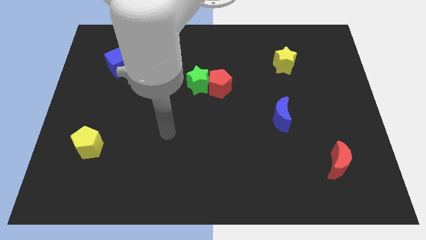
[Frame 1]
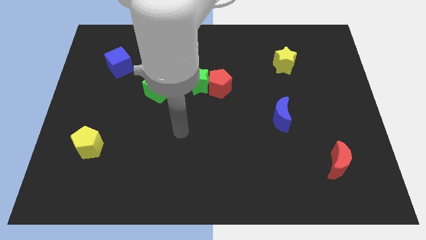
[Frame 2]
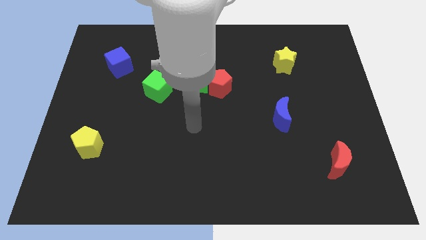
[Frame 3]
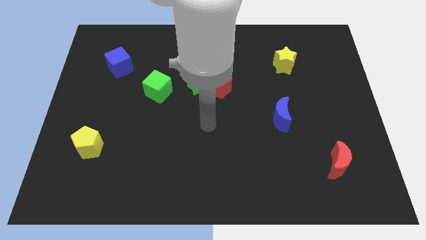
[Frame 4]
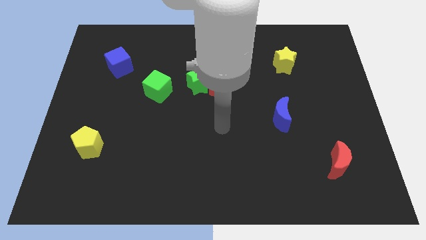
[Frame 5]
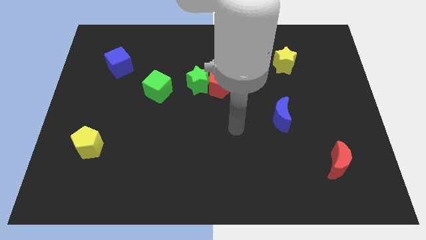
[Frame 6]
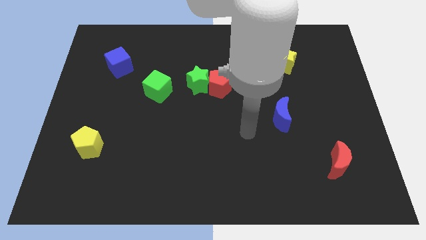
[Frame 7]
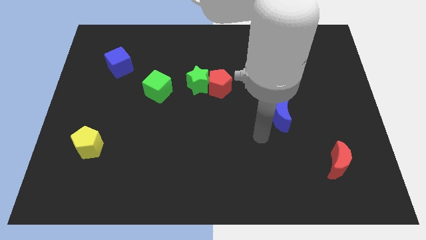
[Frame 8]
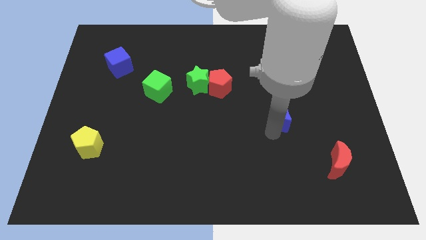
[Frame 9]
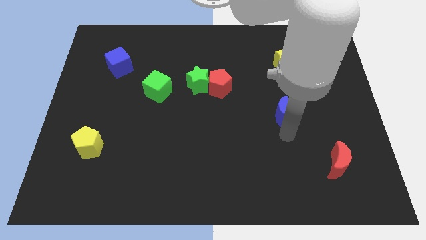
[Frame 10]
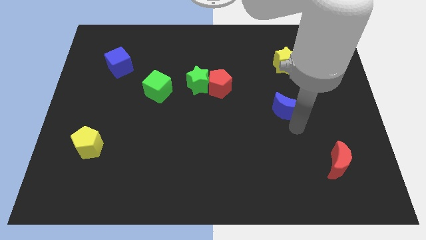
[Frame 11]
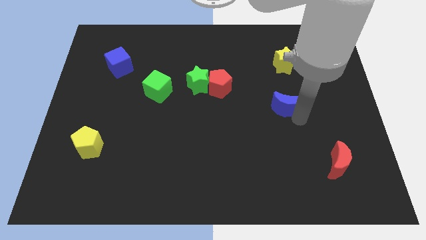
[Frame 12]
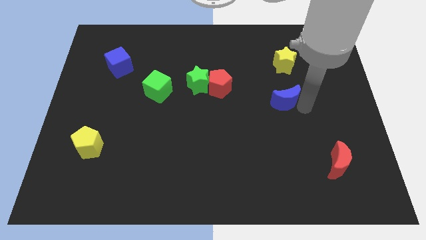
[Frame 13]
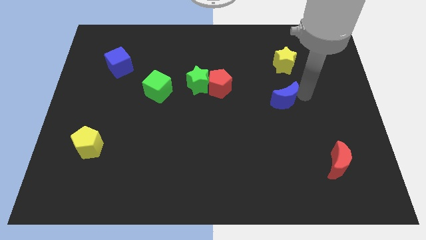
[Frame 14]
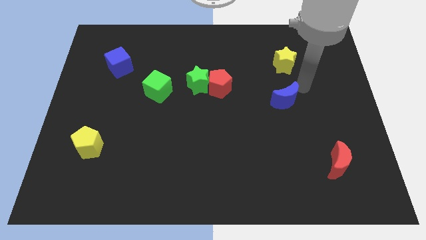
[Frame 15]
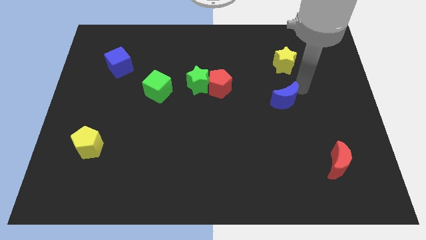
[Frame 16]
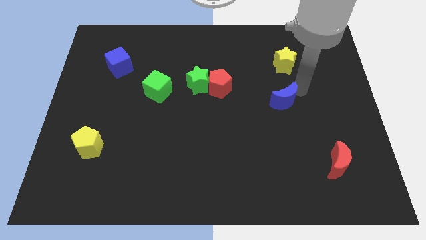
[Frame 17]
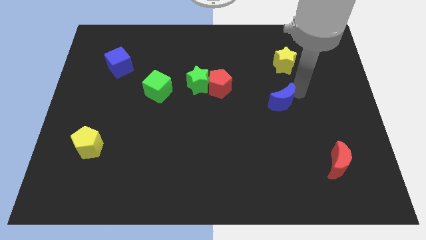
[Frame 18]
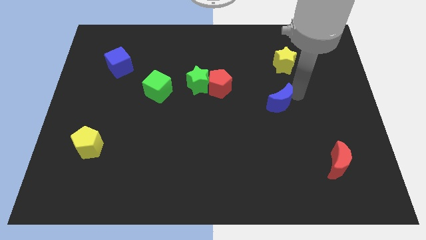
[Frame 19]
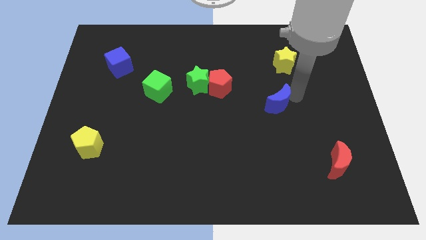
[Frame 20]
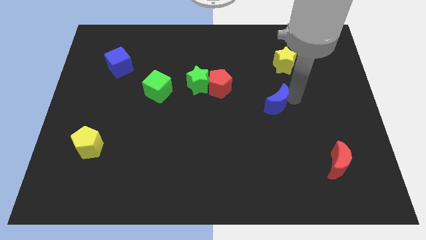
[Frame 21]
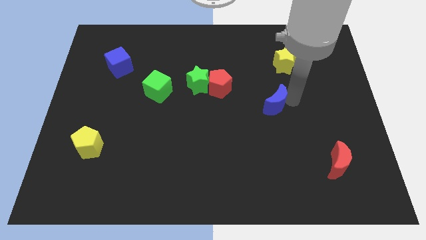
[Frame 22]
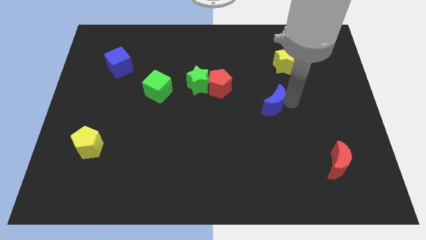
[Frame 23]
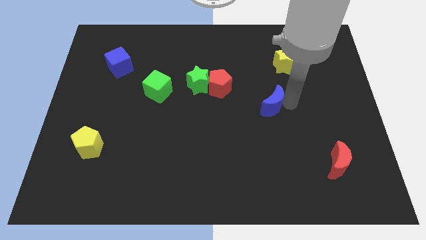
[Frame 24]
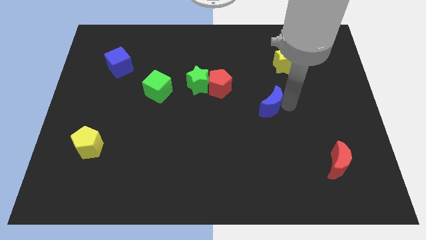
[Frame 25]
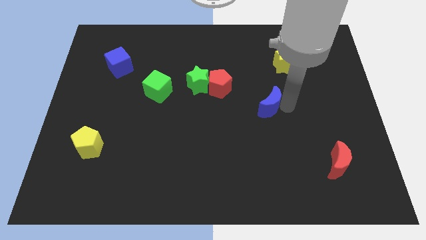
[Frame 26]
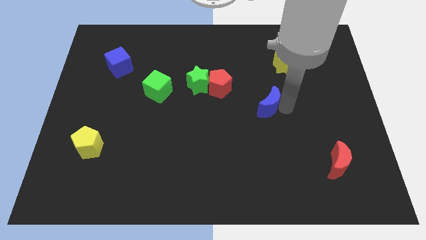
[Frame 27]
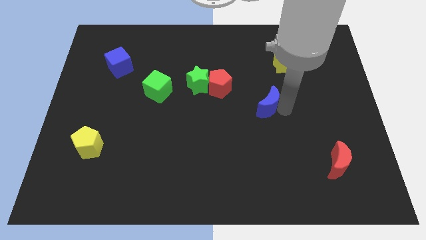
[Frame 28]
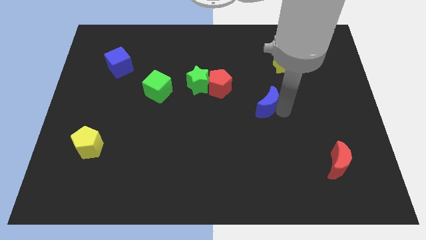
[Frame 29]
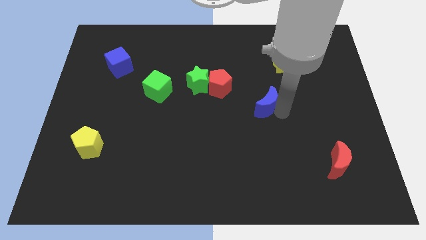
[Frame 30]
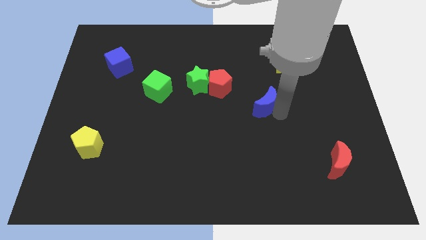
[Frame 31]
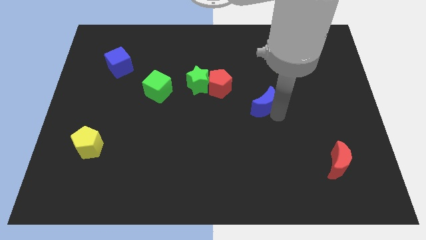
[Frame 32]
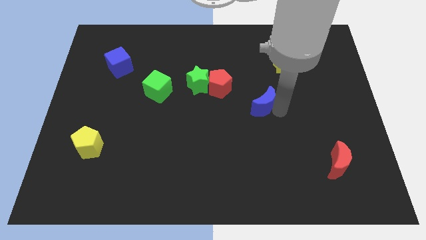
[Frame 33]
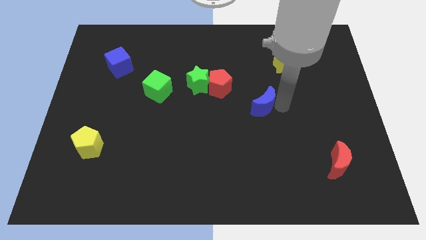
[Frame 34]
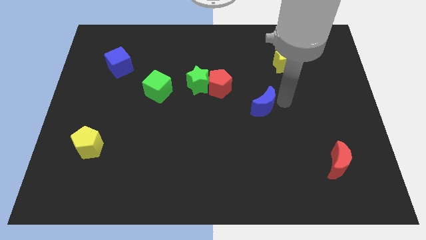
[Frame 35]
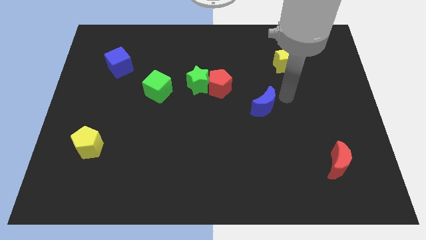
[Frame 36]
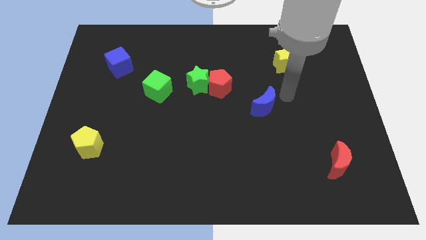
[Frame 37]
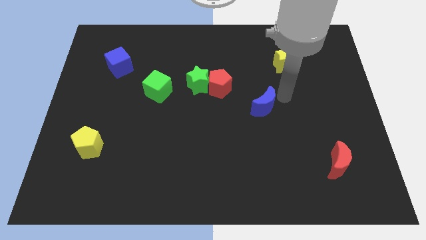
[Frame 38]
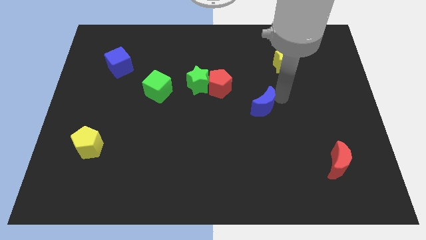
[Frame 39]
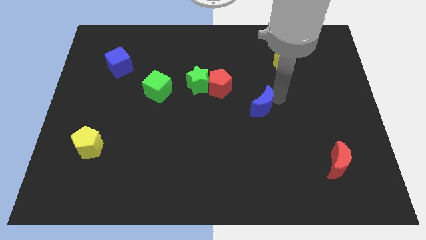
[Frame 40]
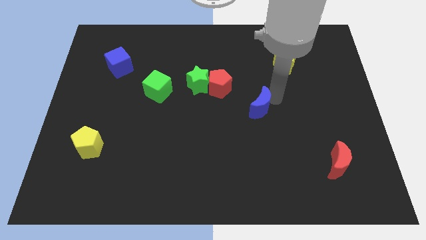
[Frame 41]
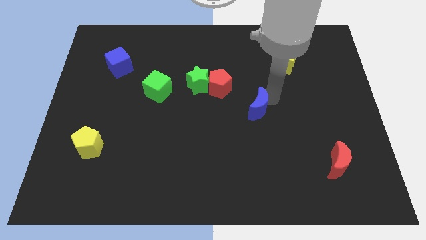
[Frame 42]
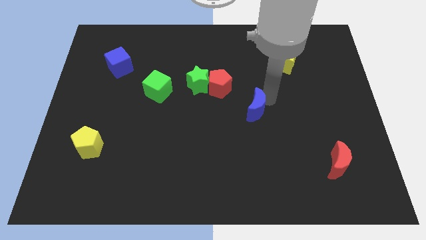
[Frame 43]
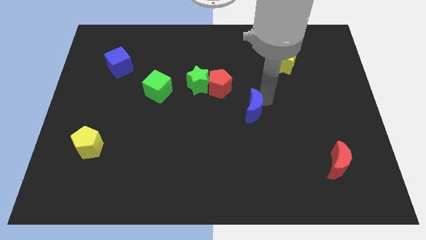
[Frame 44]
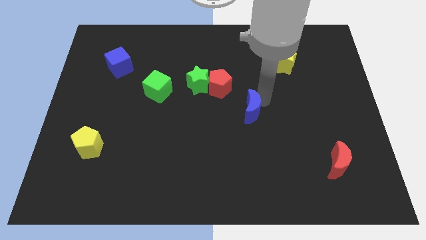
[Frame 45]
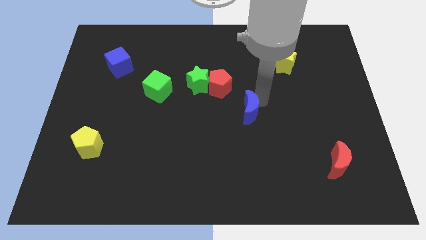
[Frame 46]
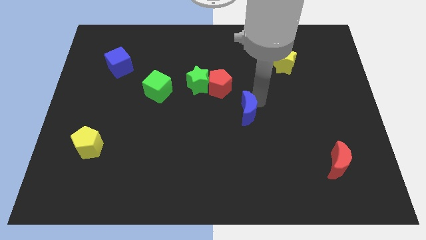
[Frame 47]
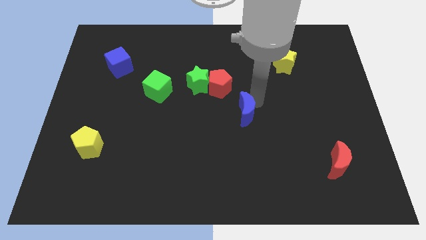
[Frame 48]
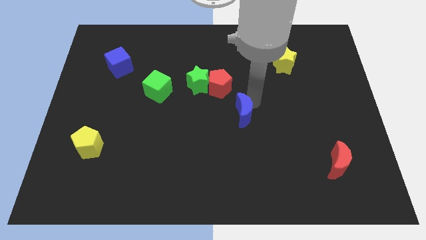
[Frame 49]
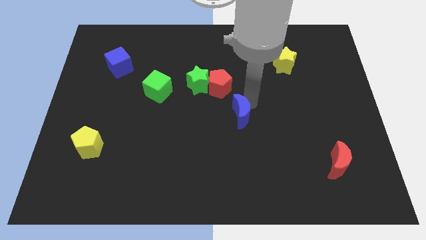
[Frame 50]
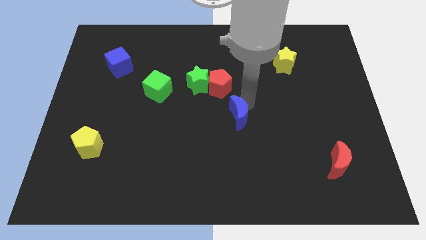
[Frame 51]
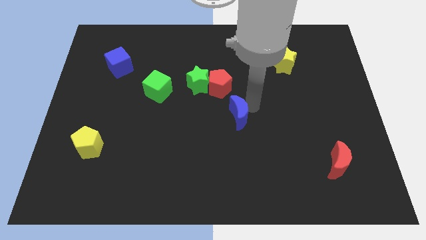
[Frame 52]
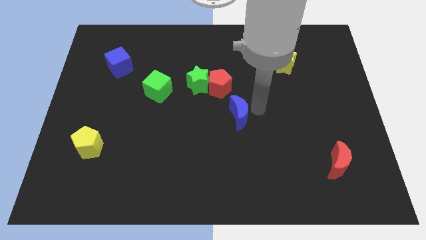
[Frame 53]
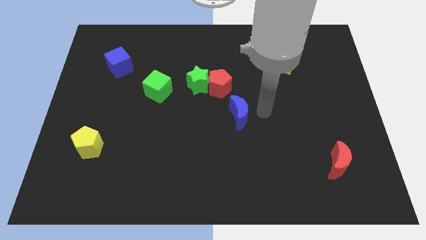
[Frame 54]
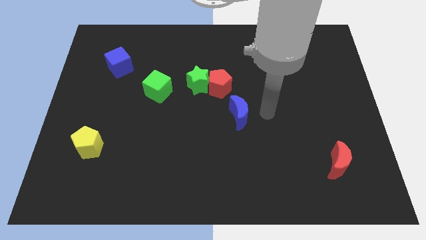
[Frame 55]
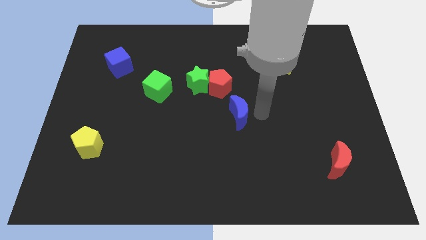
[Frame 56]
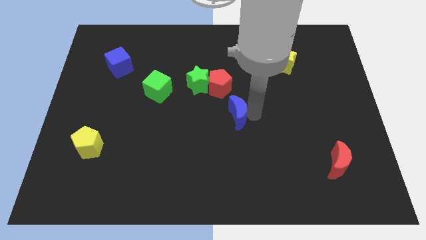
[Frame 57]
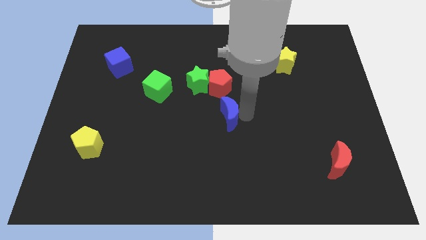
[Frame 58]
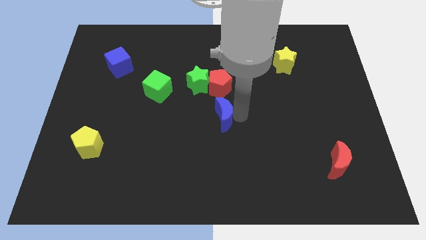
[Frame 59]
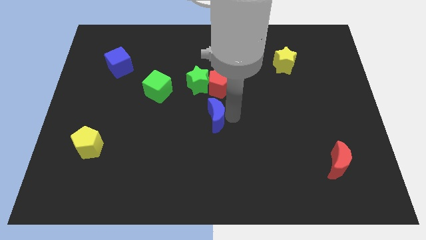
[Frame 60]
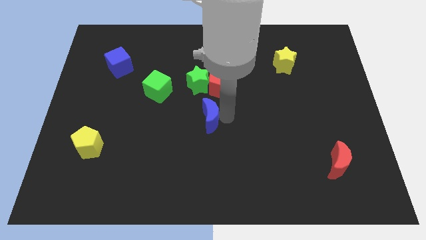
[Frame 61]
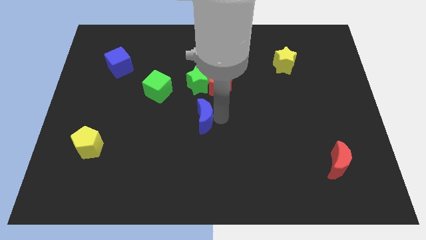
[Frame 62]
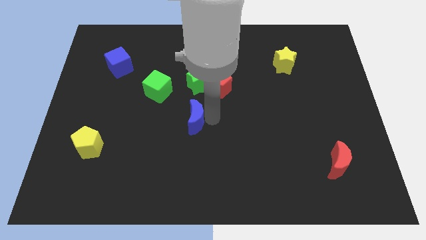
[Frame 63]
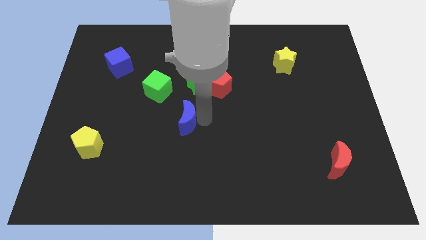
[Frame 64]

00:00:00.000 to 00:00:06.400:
move the blue moon to the left

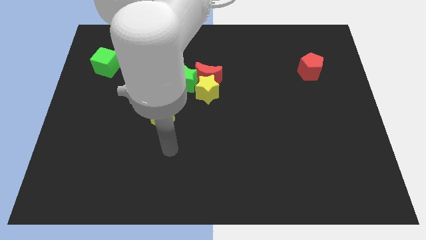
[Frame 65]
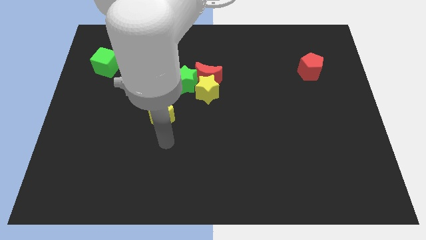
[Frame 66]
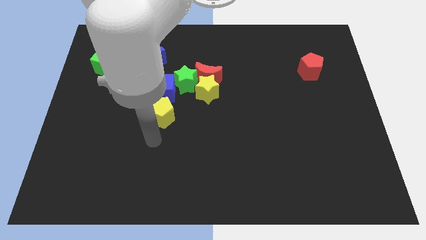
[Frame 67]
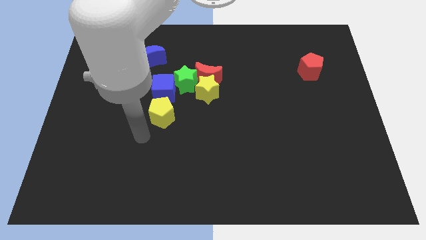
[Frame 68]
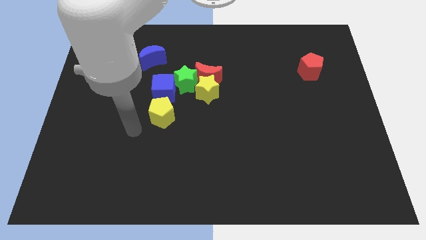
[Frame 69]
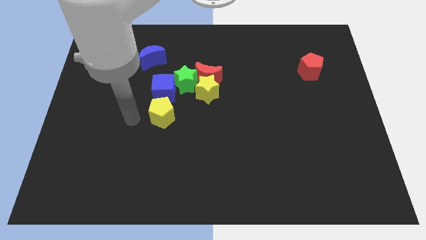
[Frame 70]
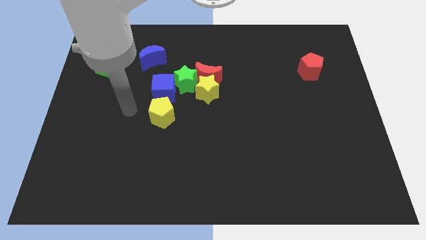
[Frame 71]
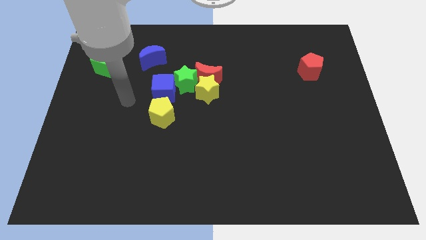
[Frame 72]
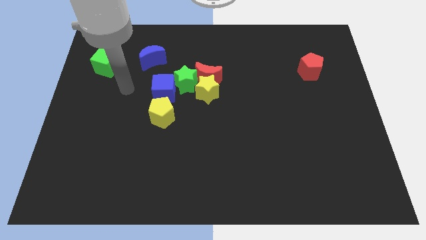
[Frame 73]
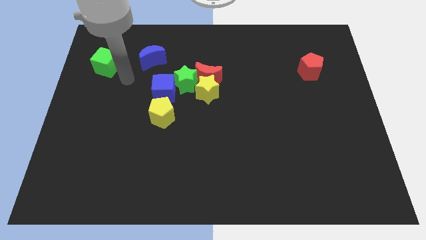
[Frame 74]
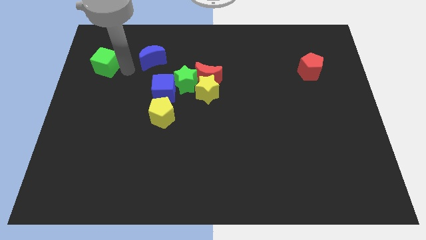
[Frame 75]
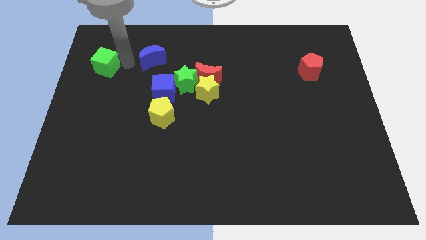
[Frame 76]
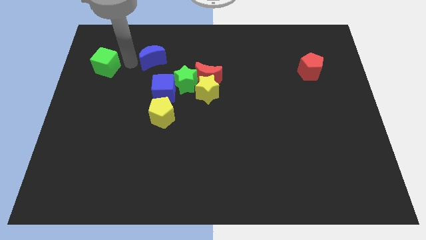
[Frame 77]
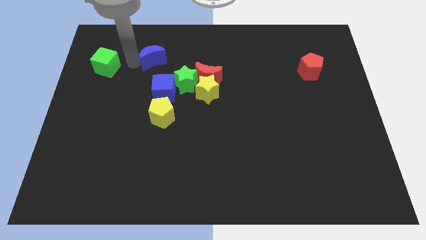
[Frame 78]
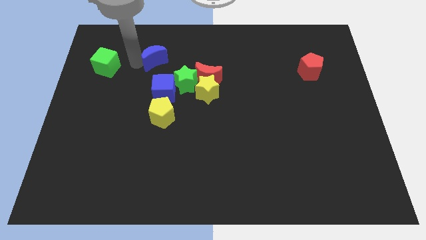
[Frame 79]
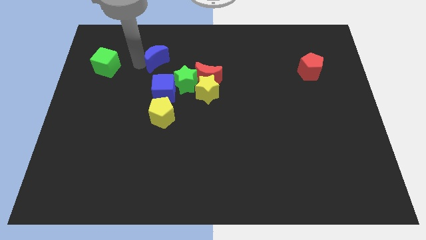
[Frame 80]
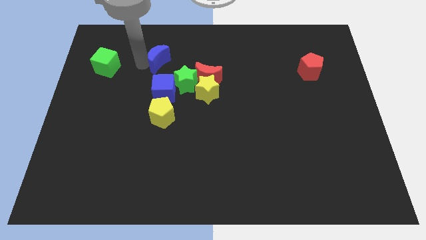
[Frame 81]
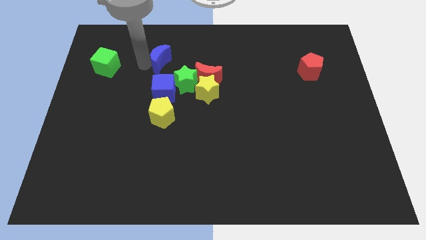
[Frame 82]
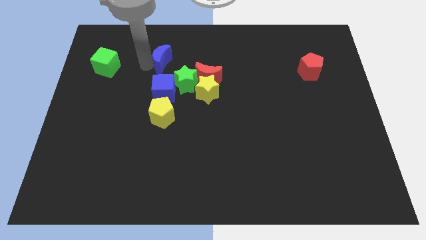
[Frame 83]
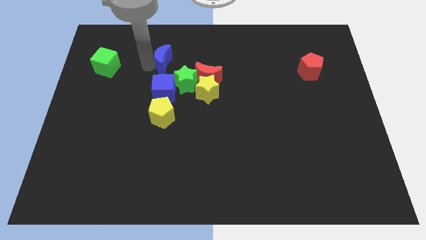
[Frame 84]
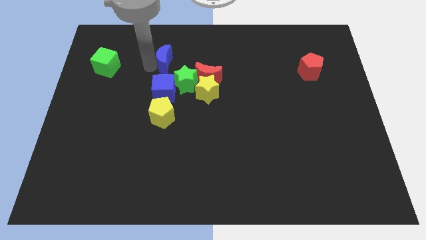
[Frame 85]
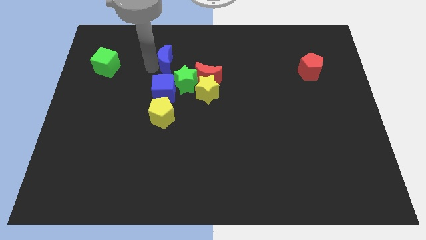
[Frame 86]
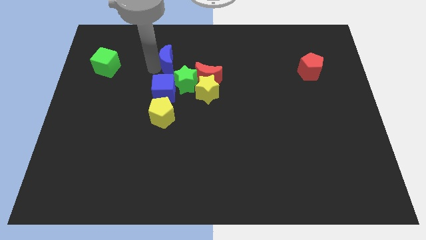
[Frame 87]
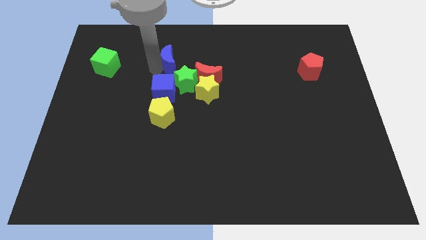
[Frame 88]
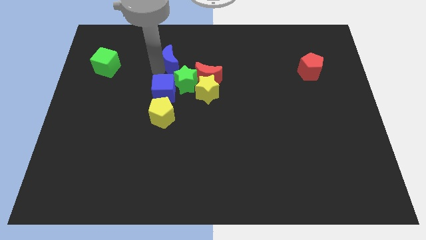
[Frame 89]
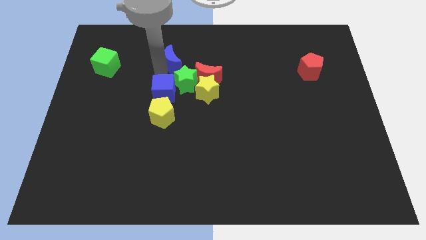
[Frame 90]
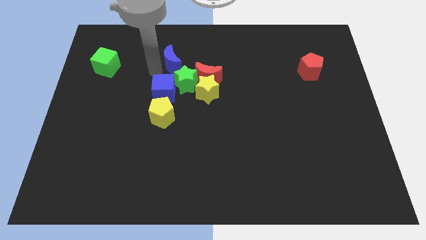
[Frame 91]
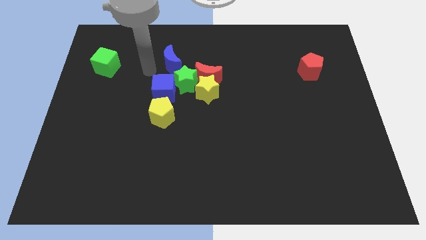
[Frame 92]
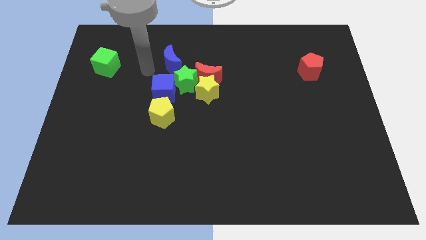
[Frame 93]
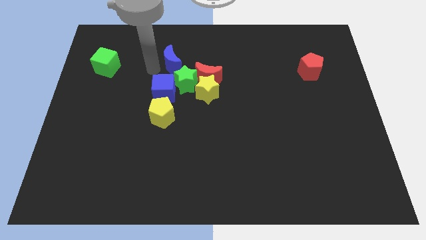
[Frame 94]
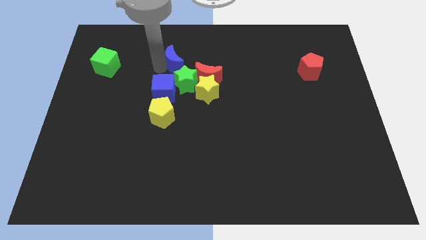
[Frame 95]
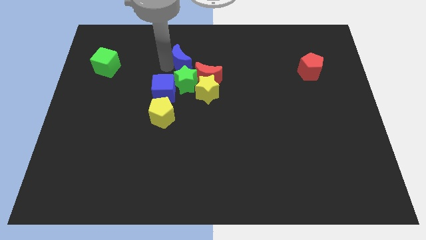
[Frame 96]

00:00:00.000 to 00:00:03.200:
slightly slide the blue moon to the right
